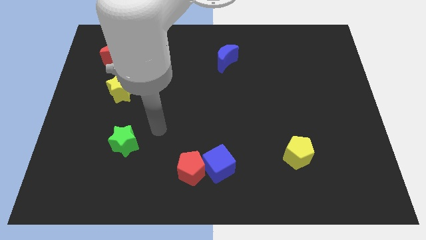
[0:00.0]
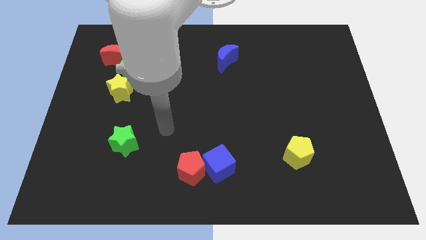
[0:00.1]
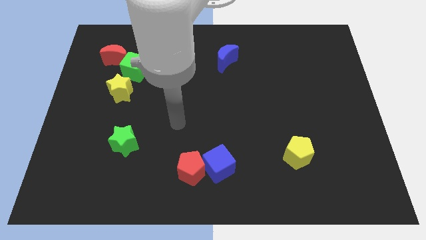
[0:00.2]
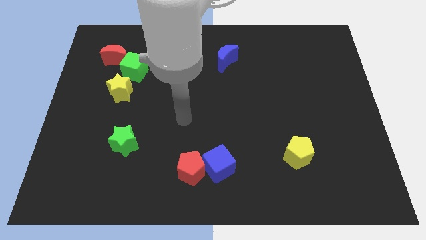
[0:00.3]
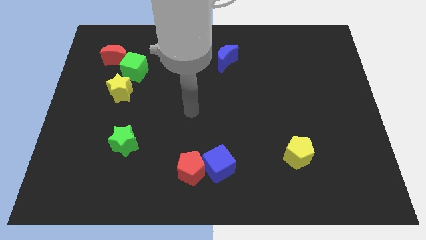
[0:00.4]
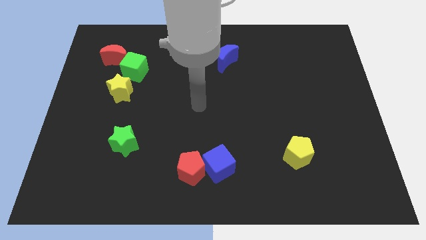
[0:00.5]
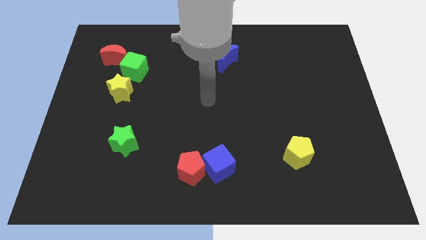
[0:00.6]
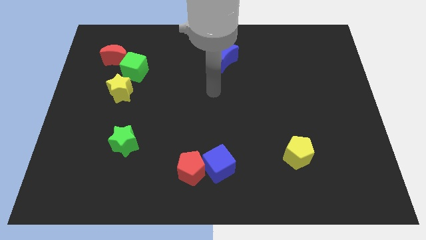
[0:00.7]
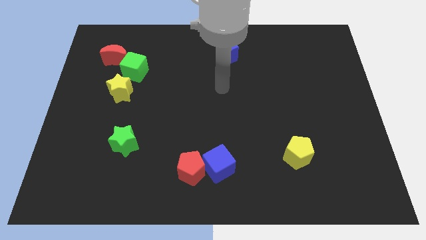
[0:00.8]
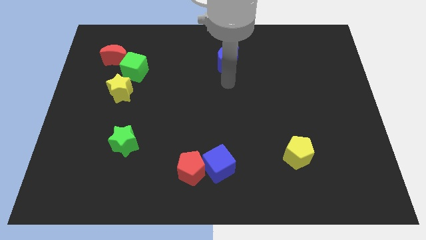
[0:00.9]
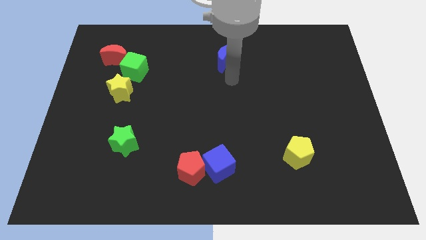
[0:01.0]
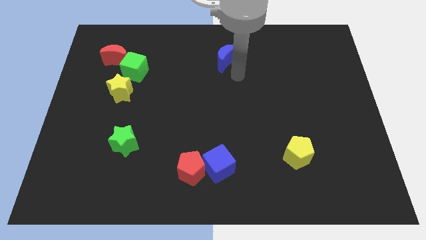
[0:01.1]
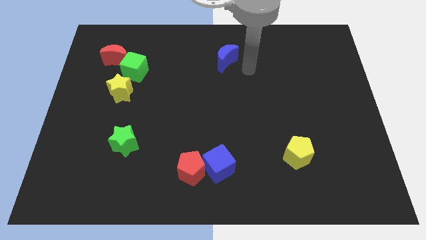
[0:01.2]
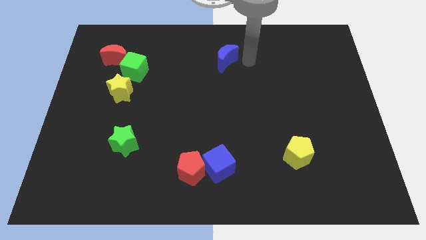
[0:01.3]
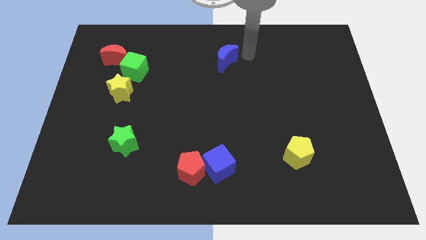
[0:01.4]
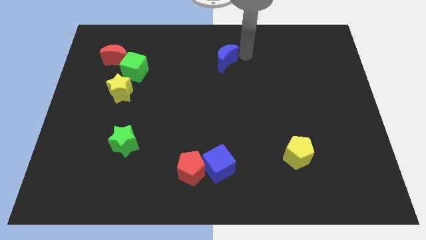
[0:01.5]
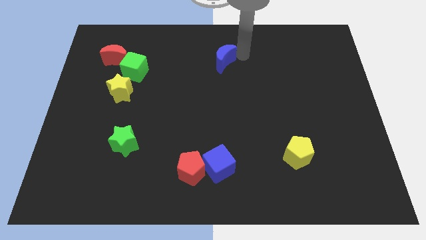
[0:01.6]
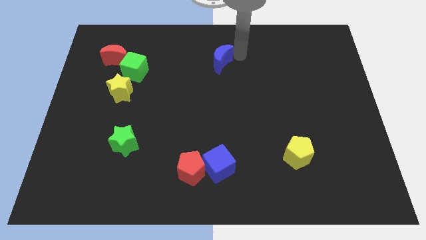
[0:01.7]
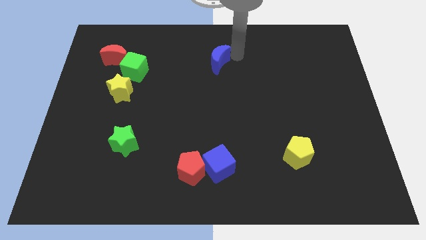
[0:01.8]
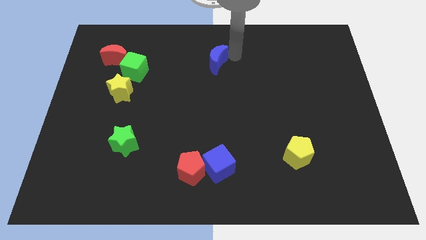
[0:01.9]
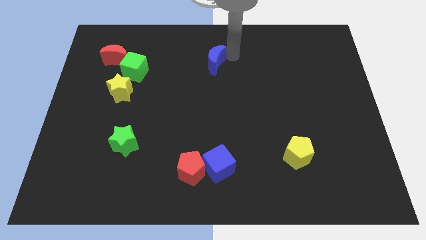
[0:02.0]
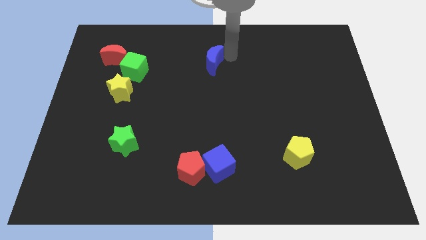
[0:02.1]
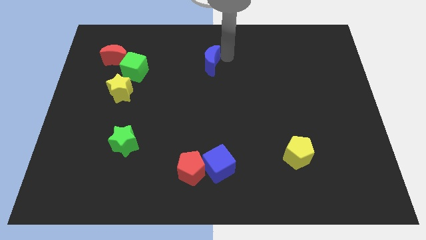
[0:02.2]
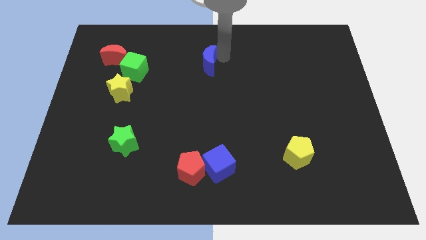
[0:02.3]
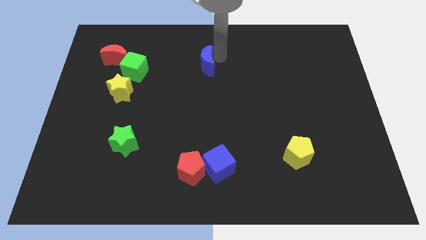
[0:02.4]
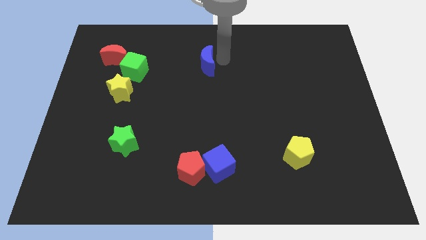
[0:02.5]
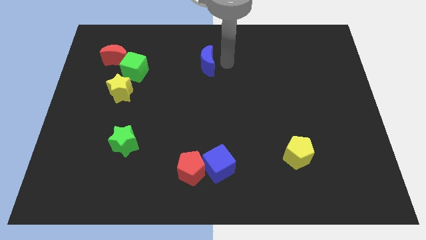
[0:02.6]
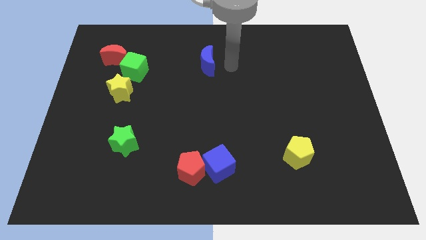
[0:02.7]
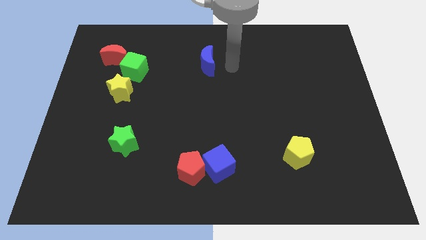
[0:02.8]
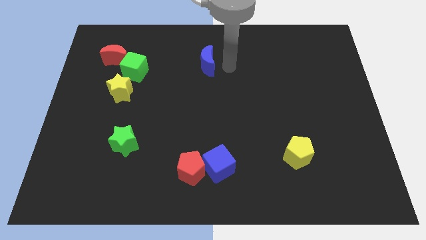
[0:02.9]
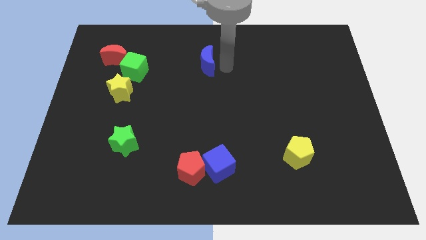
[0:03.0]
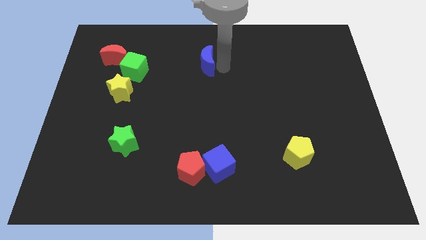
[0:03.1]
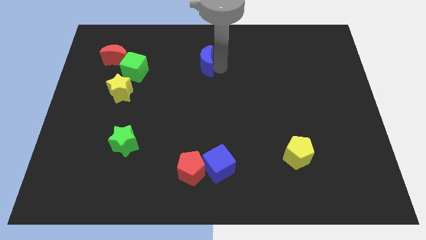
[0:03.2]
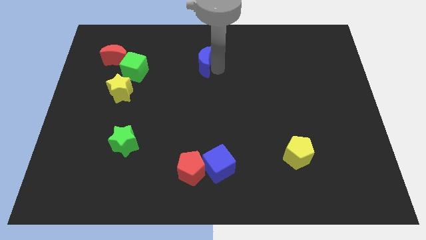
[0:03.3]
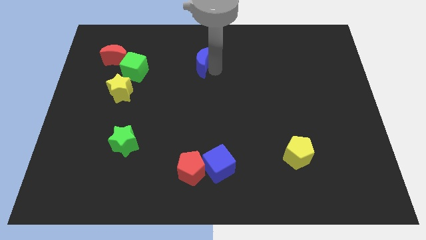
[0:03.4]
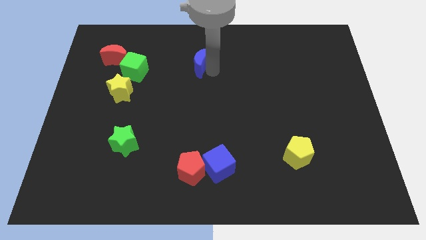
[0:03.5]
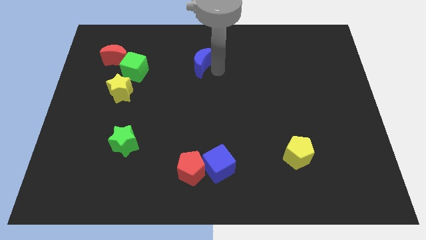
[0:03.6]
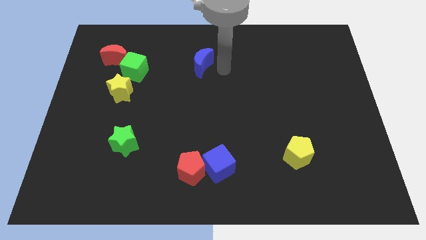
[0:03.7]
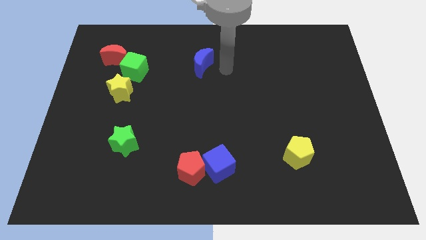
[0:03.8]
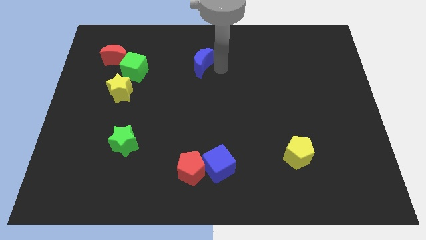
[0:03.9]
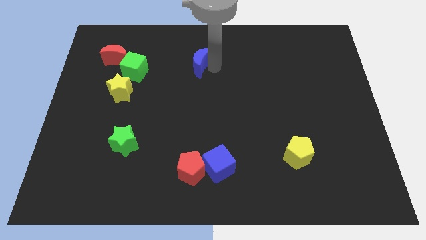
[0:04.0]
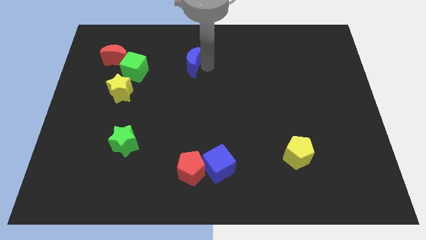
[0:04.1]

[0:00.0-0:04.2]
slightly push the blue moon left

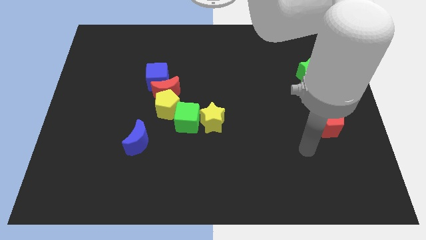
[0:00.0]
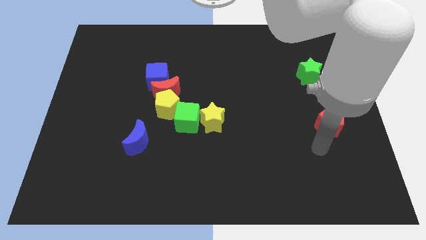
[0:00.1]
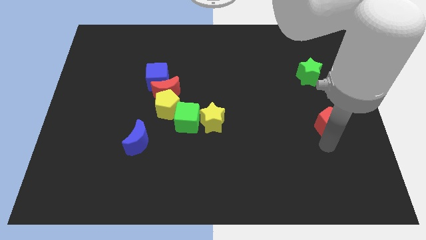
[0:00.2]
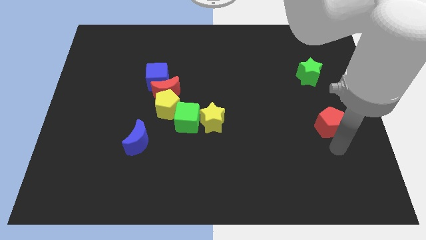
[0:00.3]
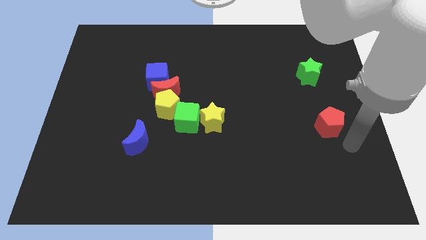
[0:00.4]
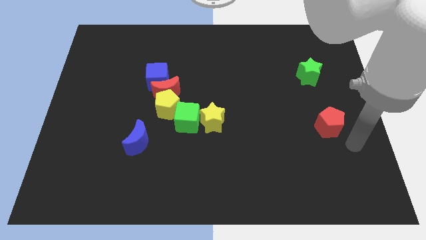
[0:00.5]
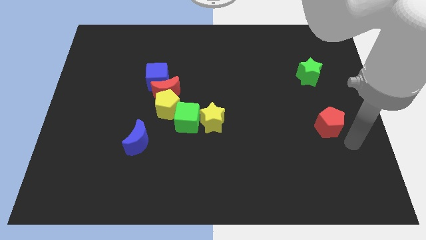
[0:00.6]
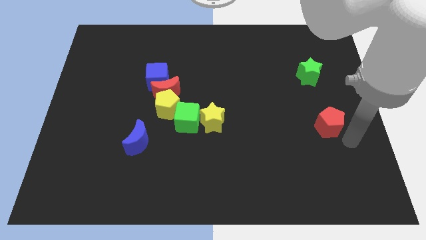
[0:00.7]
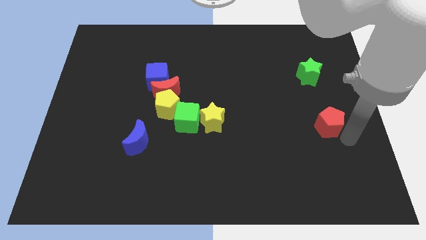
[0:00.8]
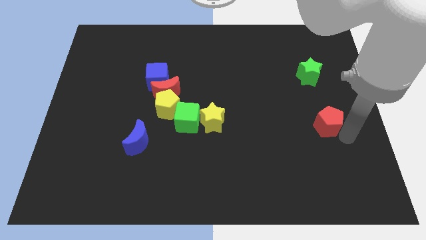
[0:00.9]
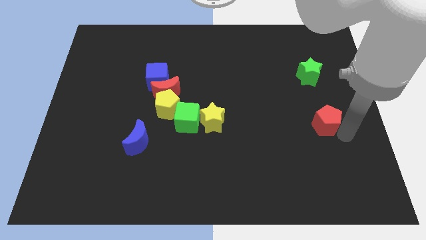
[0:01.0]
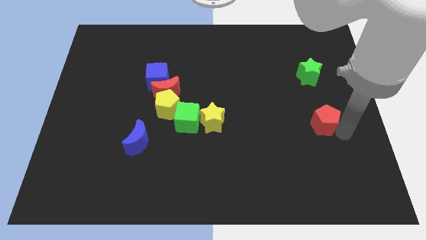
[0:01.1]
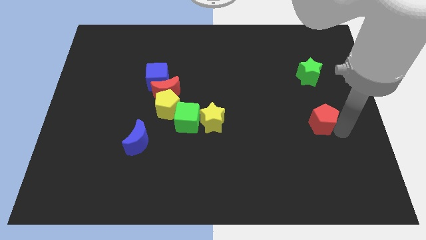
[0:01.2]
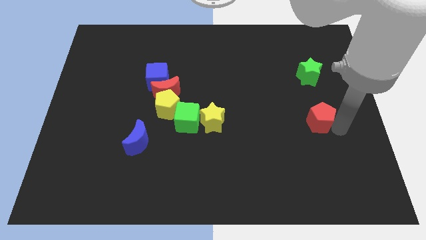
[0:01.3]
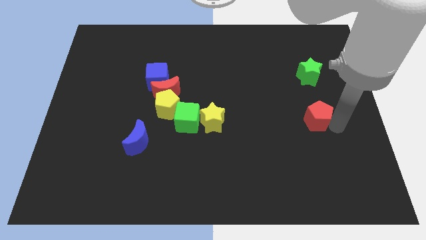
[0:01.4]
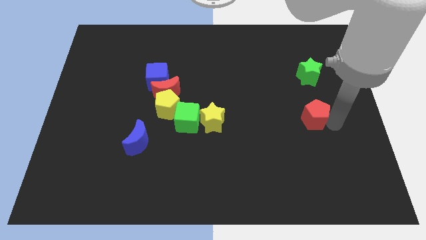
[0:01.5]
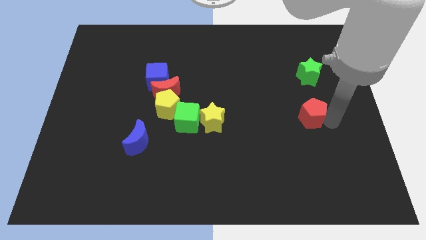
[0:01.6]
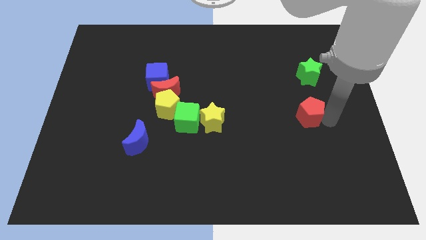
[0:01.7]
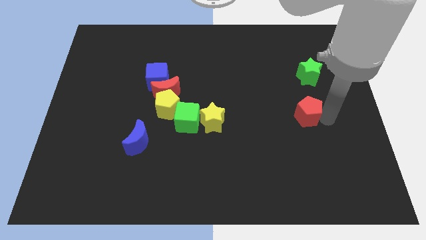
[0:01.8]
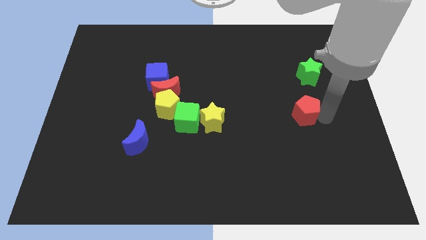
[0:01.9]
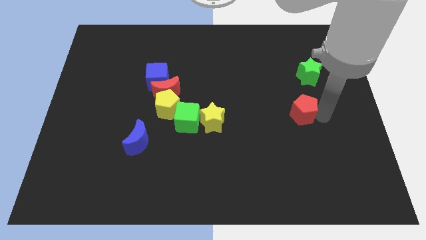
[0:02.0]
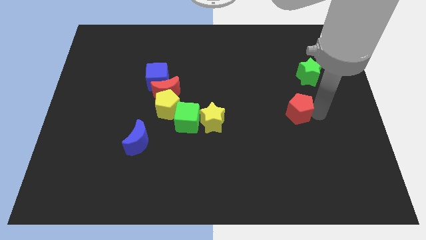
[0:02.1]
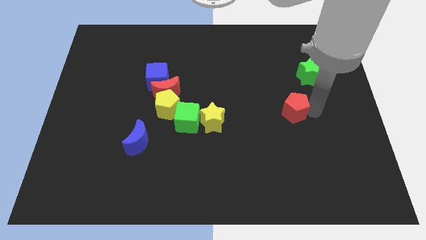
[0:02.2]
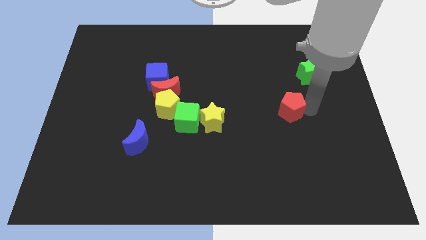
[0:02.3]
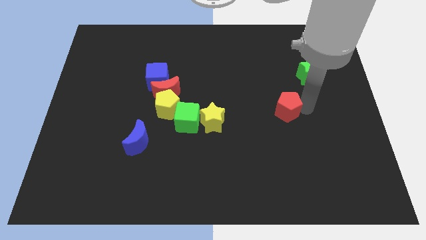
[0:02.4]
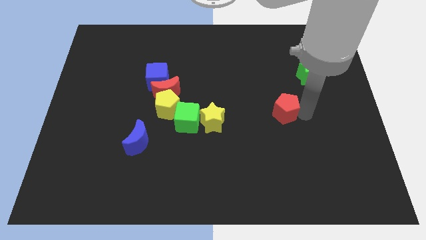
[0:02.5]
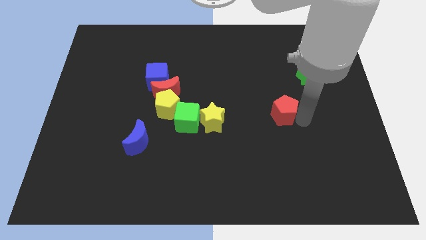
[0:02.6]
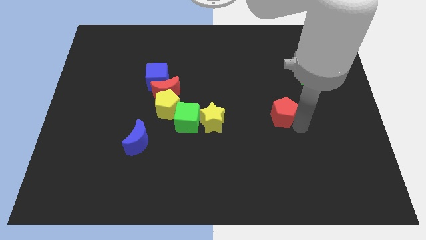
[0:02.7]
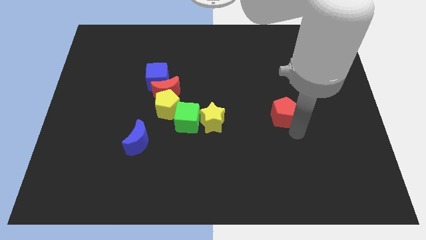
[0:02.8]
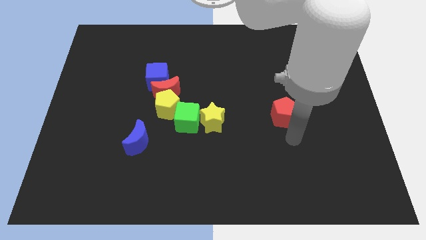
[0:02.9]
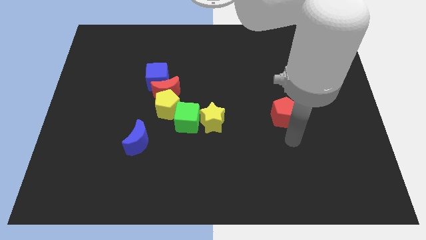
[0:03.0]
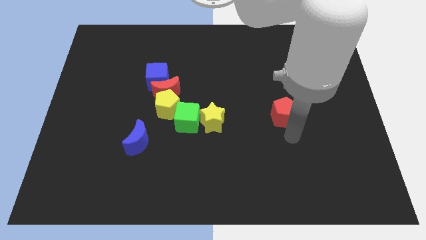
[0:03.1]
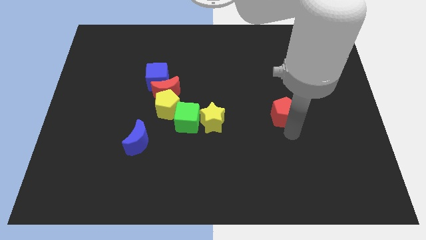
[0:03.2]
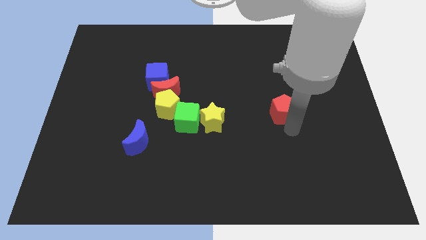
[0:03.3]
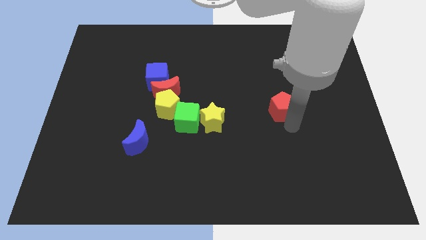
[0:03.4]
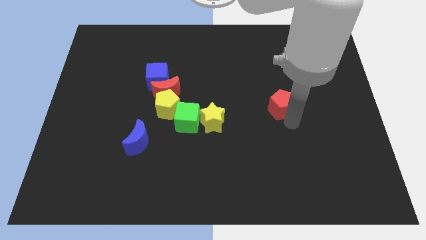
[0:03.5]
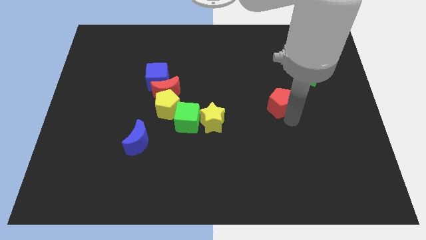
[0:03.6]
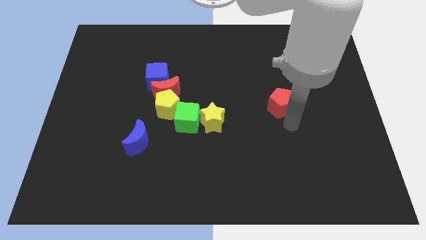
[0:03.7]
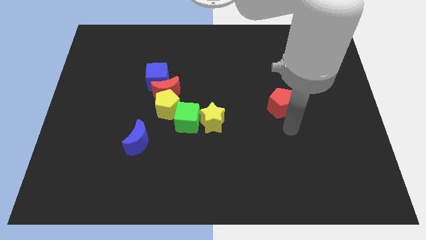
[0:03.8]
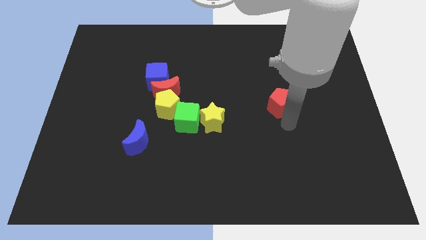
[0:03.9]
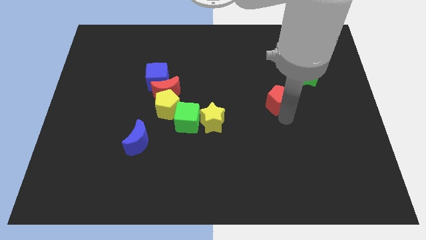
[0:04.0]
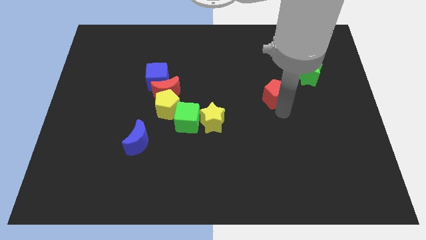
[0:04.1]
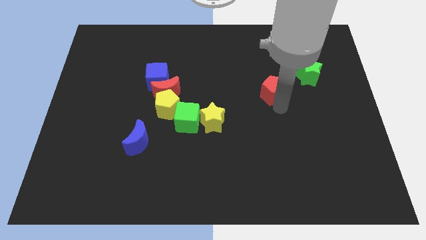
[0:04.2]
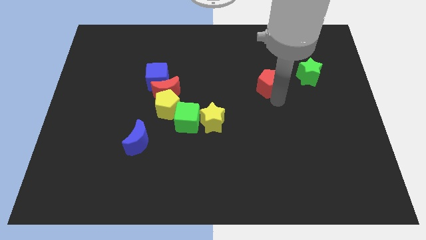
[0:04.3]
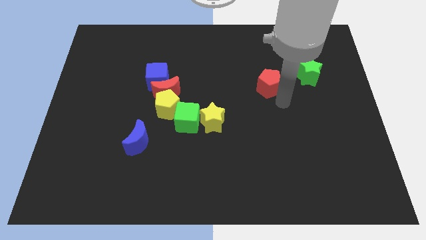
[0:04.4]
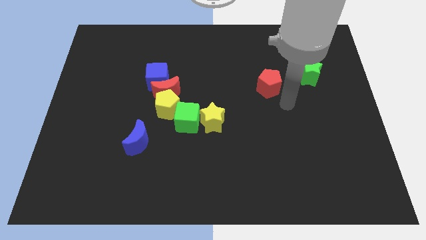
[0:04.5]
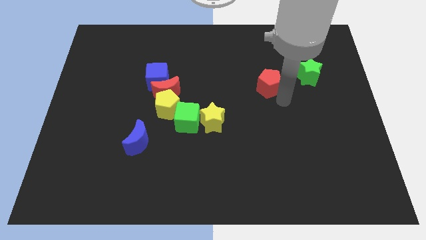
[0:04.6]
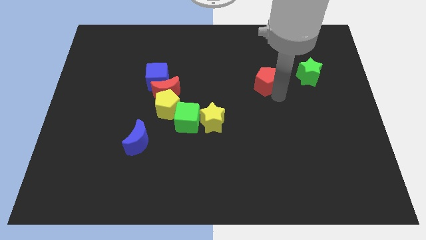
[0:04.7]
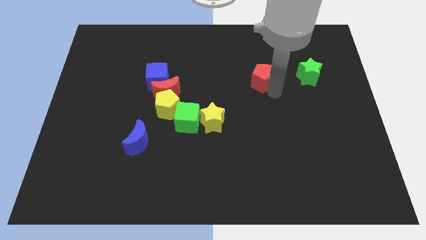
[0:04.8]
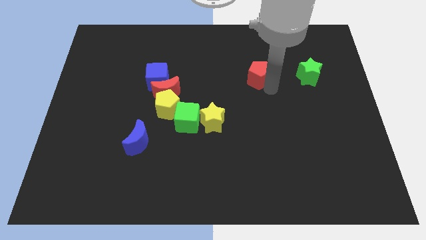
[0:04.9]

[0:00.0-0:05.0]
move the red pentagon up and to the left
